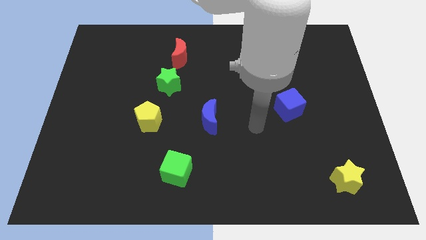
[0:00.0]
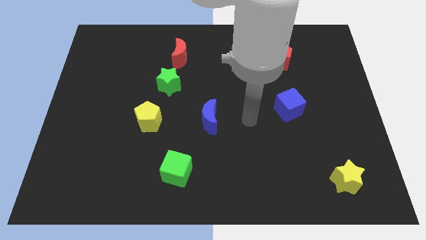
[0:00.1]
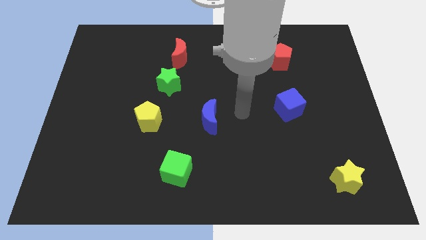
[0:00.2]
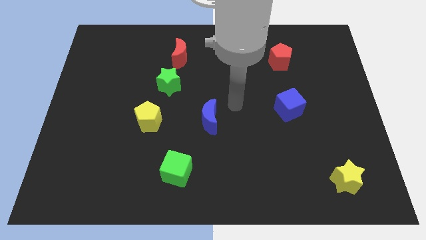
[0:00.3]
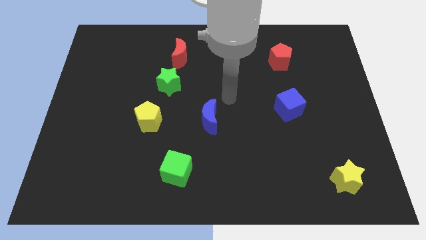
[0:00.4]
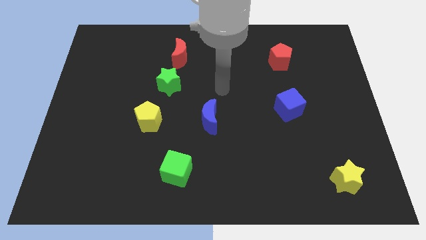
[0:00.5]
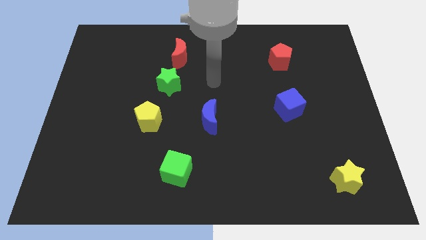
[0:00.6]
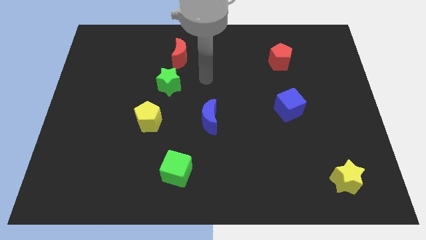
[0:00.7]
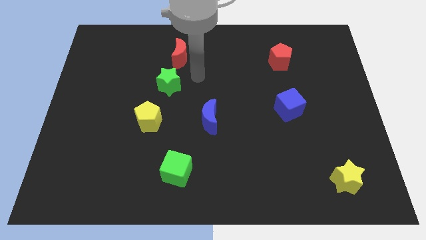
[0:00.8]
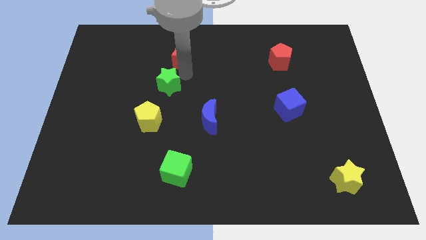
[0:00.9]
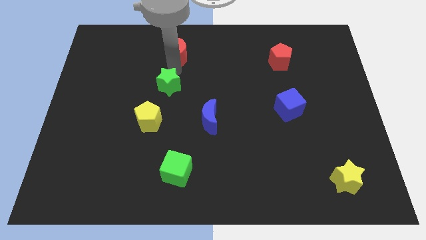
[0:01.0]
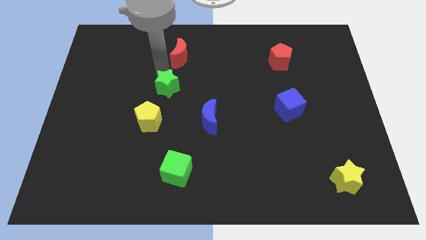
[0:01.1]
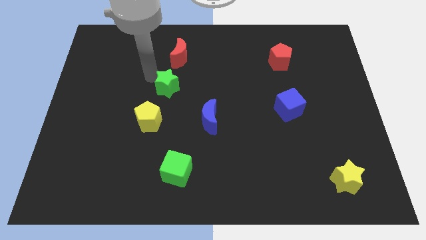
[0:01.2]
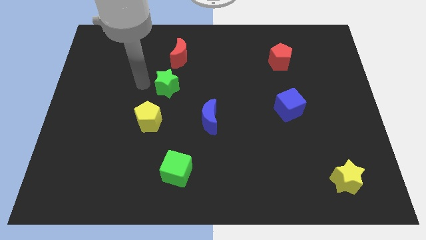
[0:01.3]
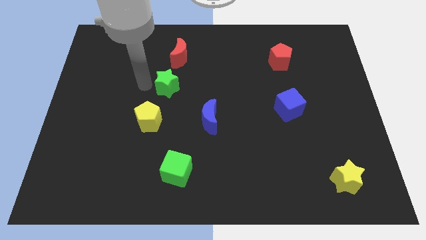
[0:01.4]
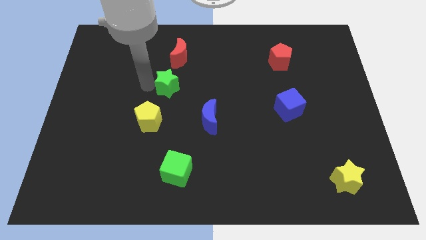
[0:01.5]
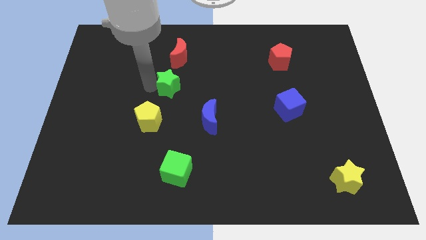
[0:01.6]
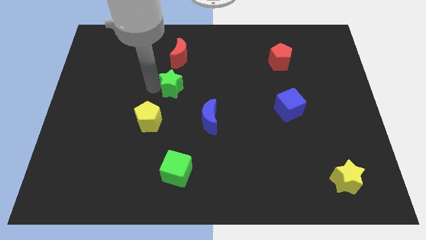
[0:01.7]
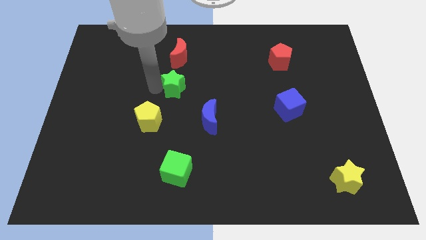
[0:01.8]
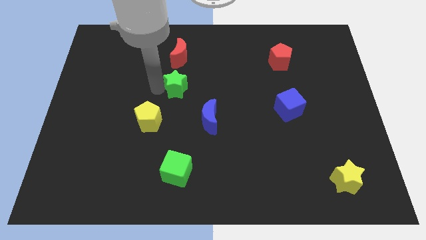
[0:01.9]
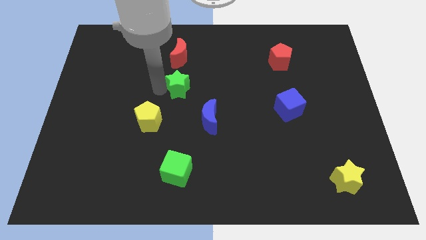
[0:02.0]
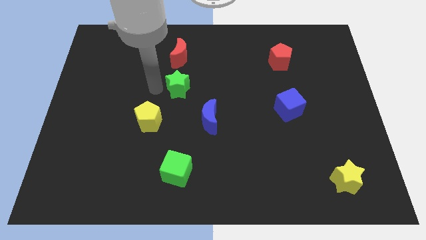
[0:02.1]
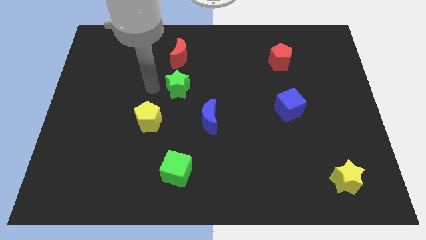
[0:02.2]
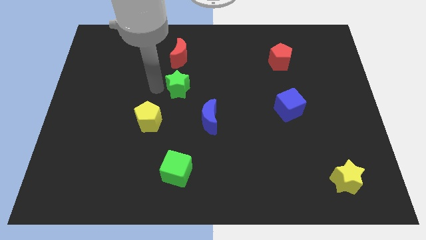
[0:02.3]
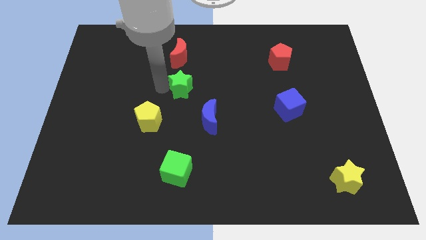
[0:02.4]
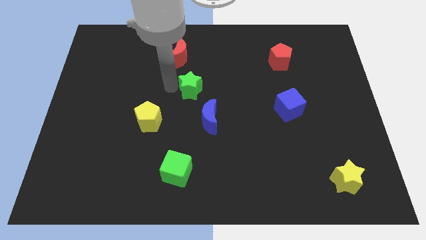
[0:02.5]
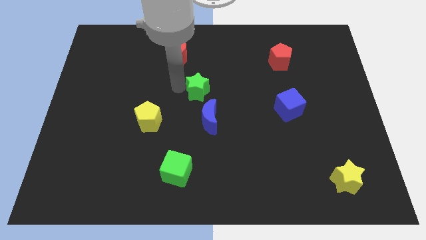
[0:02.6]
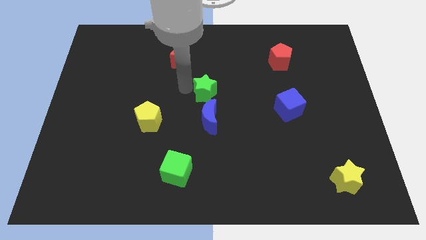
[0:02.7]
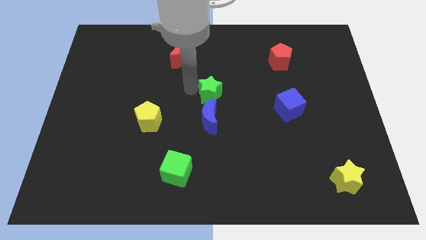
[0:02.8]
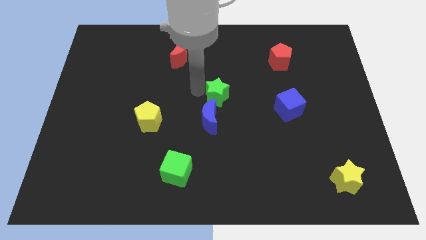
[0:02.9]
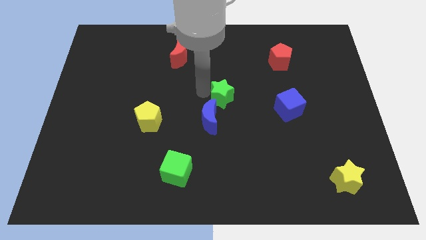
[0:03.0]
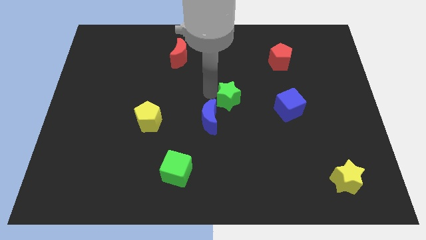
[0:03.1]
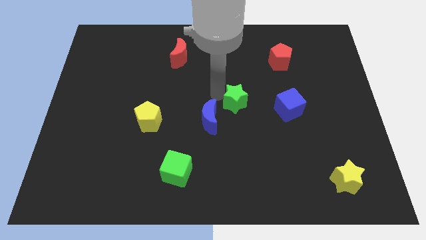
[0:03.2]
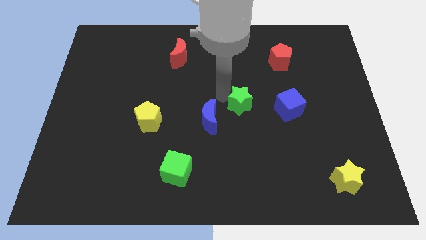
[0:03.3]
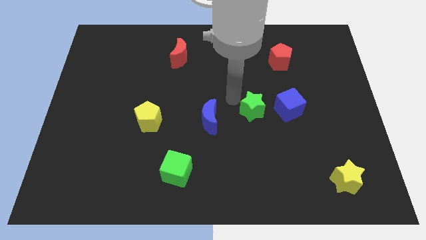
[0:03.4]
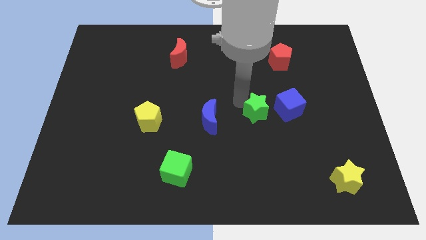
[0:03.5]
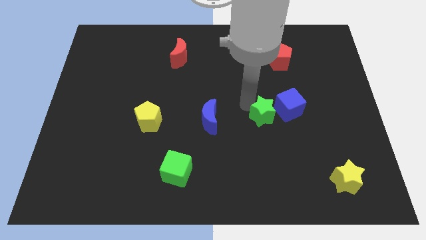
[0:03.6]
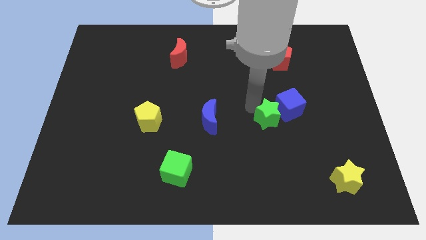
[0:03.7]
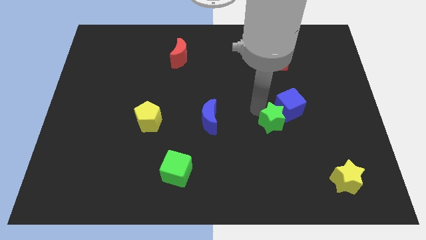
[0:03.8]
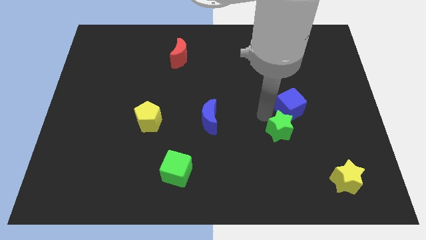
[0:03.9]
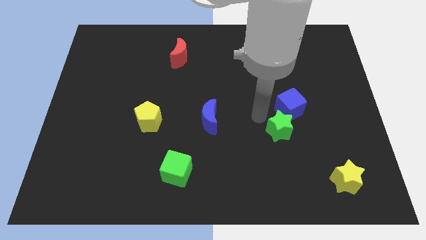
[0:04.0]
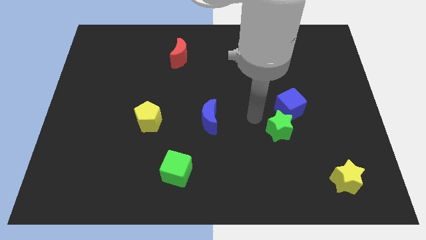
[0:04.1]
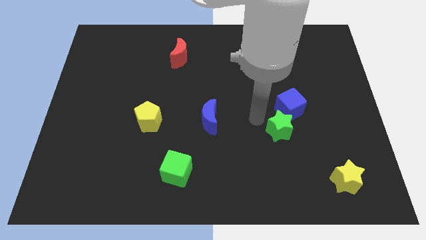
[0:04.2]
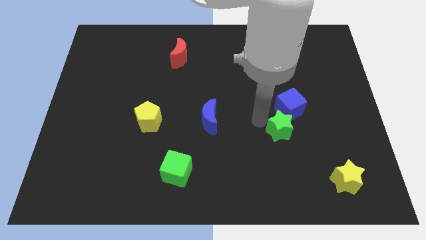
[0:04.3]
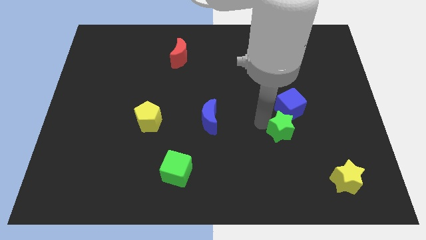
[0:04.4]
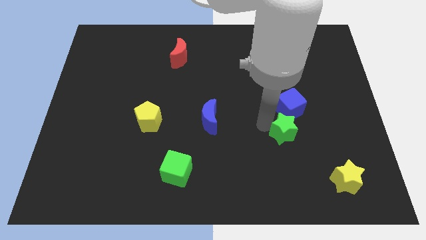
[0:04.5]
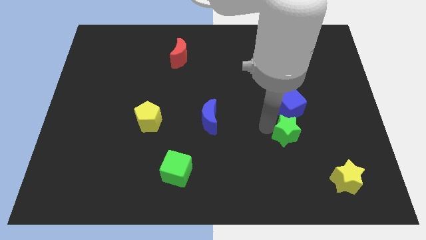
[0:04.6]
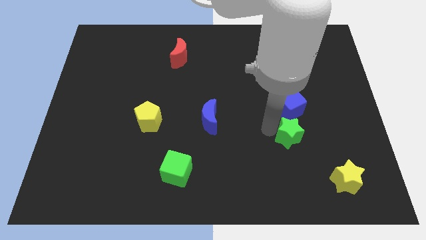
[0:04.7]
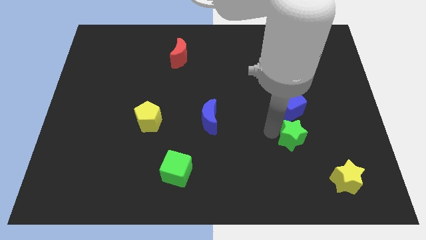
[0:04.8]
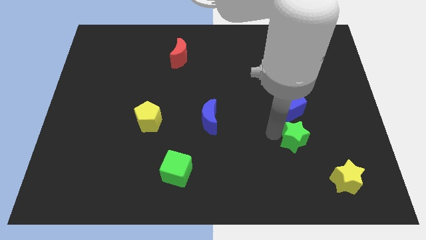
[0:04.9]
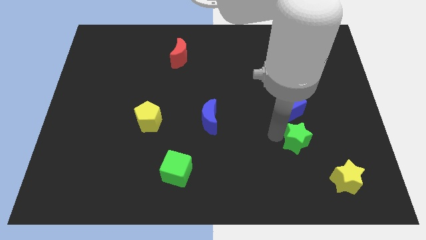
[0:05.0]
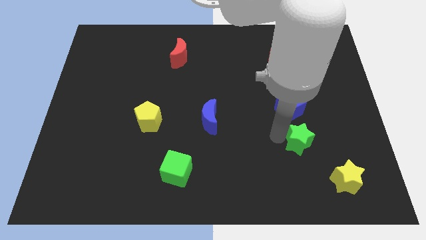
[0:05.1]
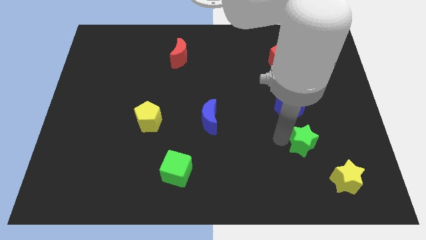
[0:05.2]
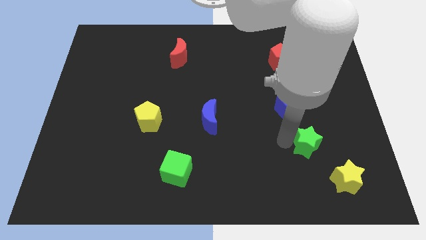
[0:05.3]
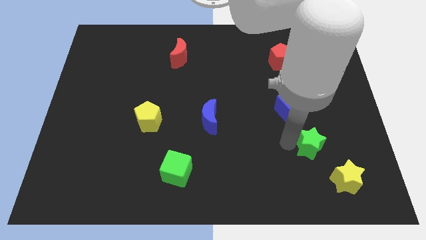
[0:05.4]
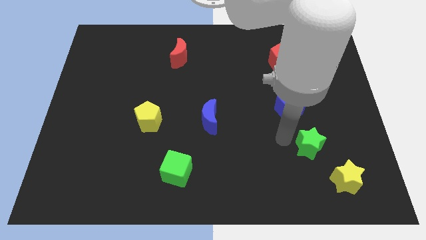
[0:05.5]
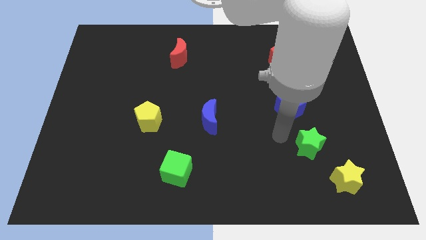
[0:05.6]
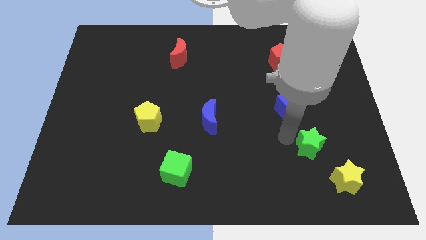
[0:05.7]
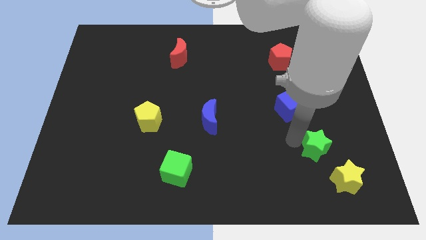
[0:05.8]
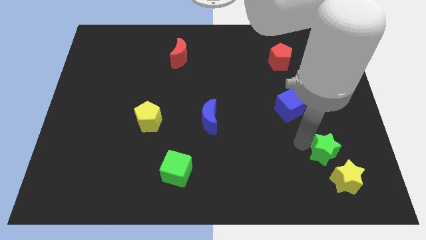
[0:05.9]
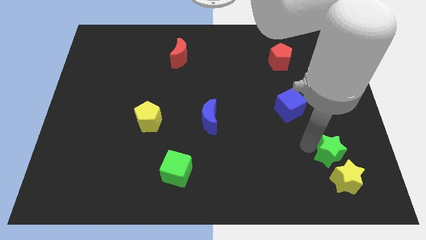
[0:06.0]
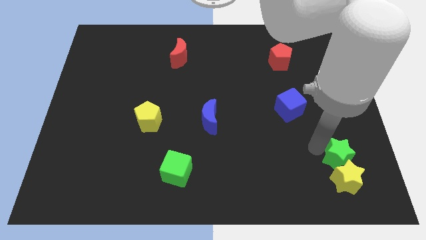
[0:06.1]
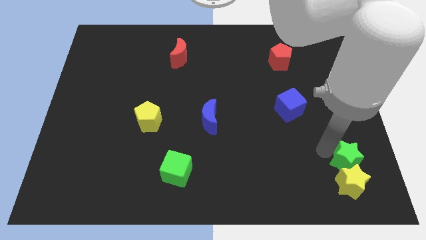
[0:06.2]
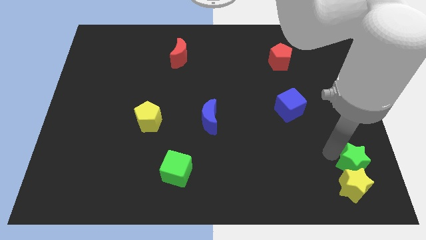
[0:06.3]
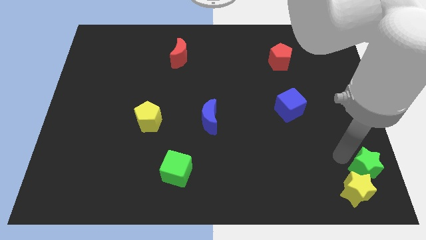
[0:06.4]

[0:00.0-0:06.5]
put the green star to the bottom right corner

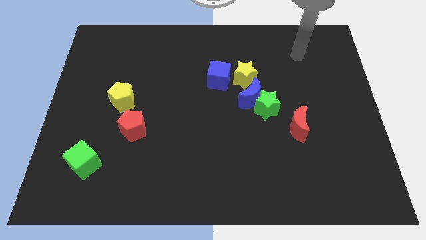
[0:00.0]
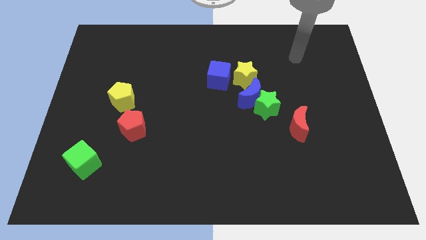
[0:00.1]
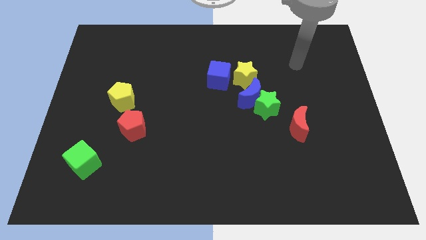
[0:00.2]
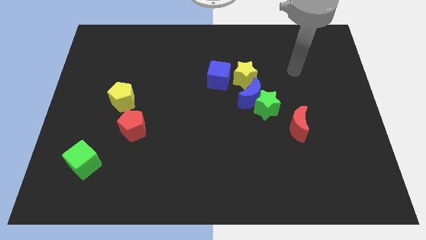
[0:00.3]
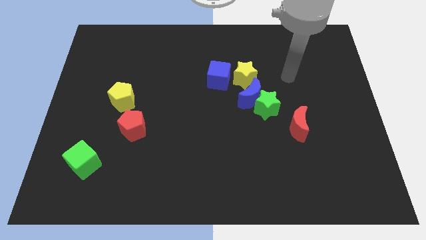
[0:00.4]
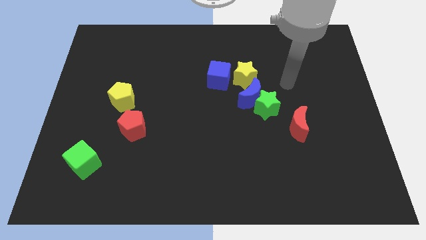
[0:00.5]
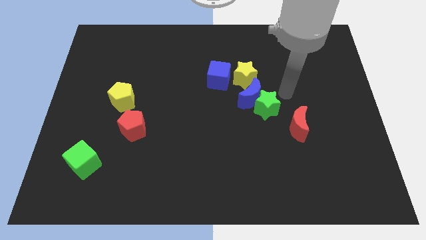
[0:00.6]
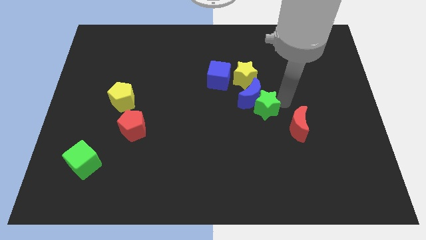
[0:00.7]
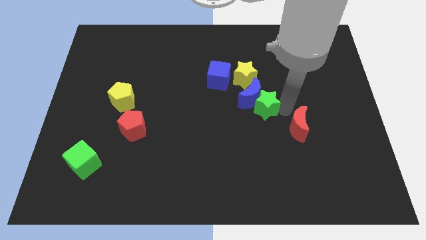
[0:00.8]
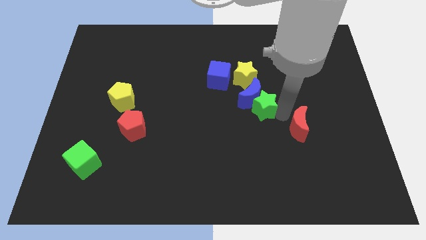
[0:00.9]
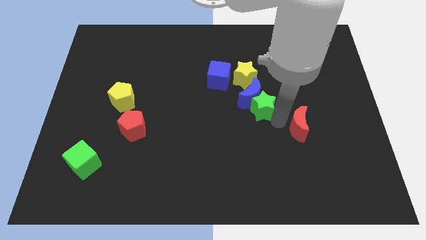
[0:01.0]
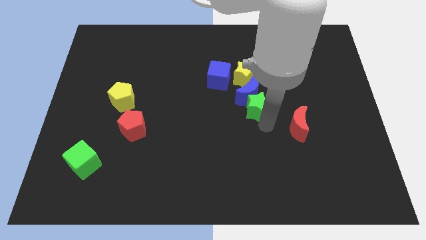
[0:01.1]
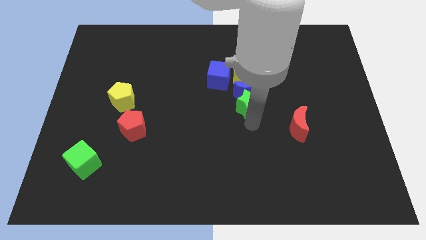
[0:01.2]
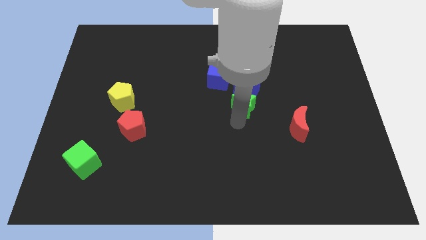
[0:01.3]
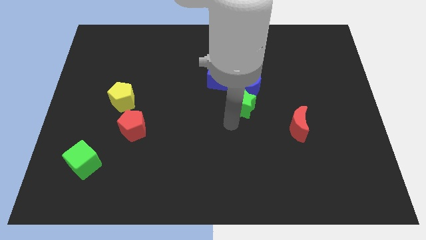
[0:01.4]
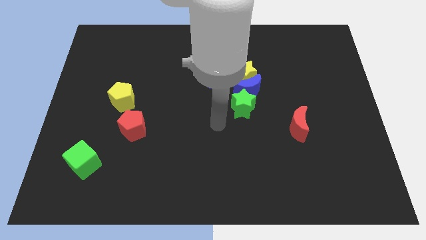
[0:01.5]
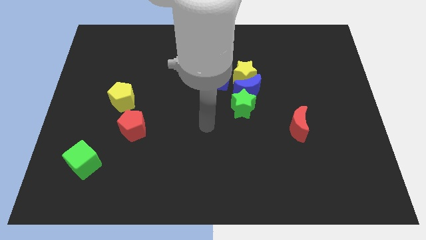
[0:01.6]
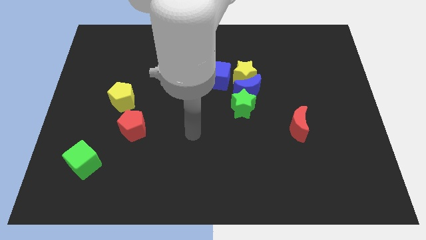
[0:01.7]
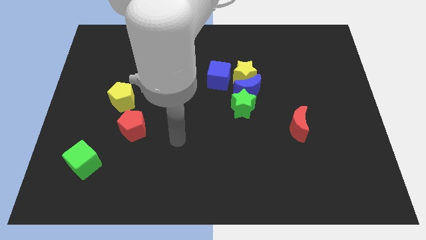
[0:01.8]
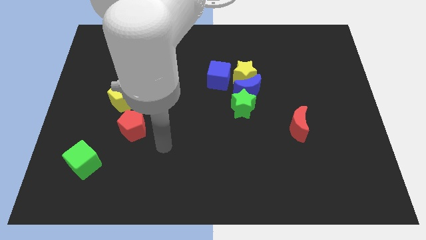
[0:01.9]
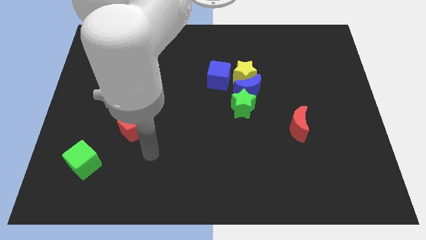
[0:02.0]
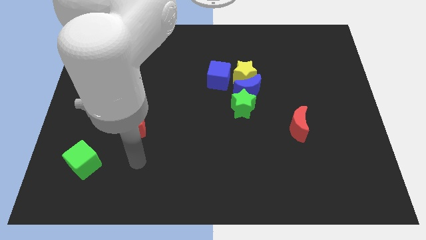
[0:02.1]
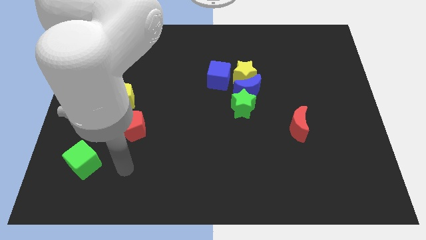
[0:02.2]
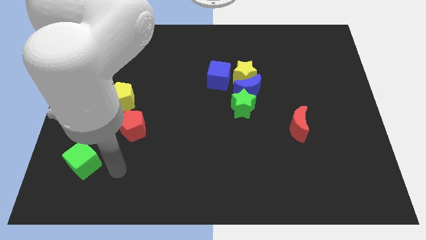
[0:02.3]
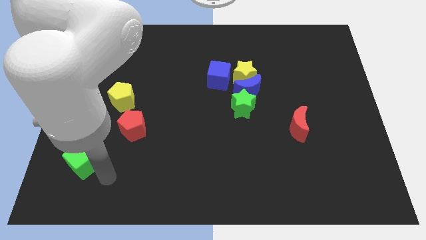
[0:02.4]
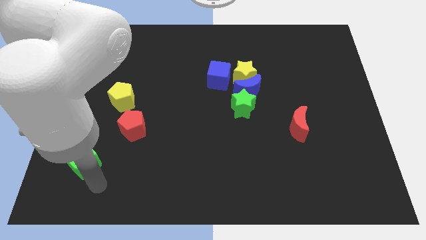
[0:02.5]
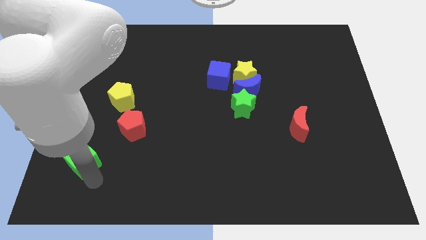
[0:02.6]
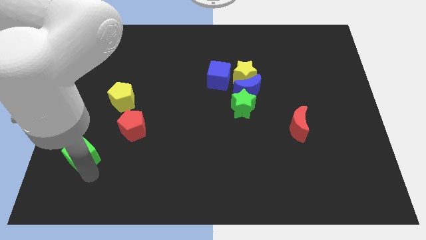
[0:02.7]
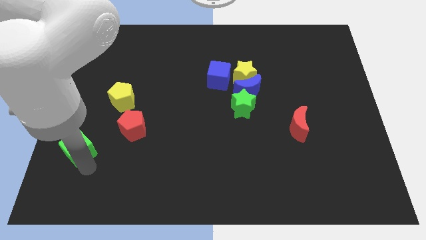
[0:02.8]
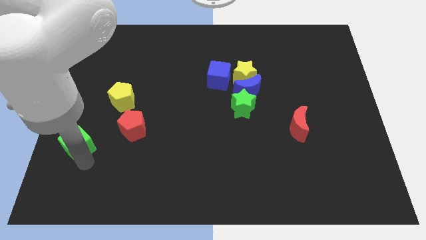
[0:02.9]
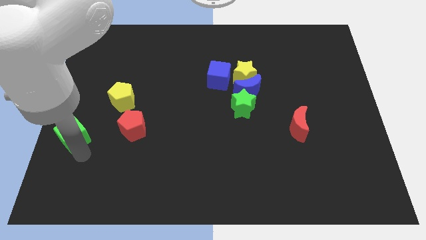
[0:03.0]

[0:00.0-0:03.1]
slide the green cube to the left side of the board
